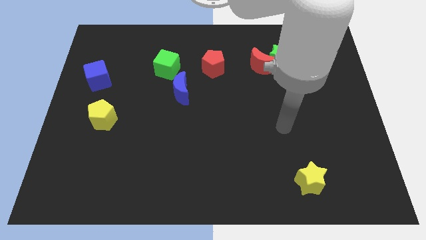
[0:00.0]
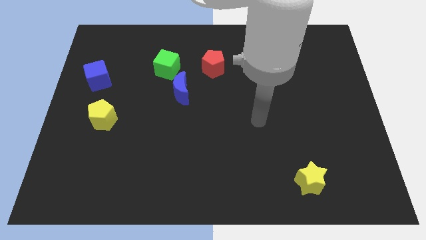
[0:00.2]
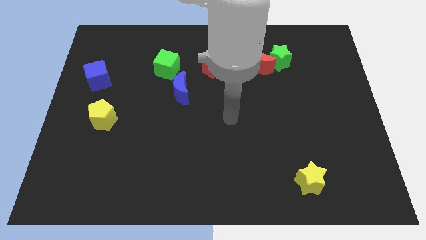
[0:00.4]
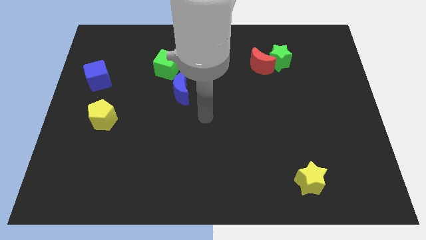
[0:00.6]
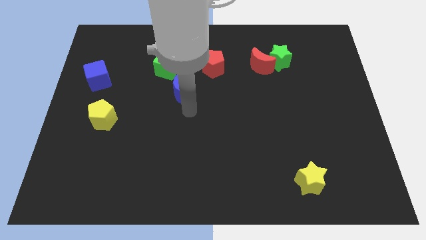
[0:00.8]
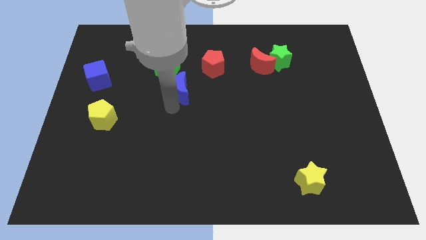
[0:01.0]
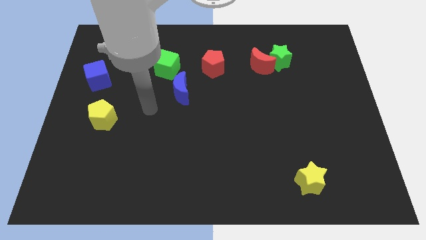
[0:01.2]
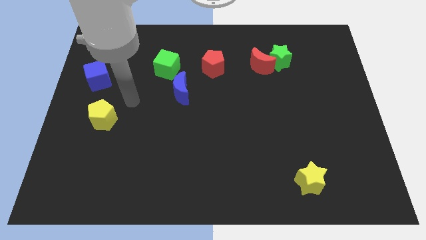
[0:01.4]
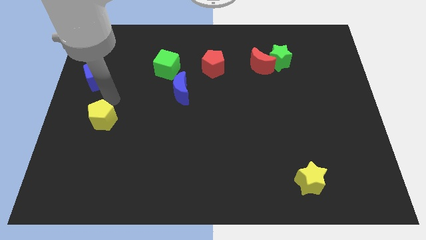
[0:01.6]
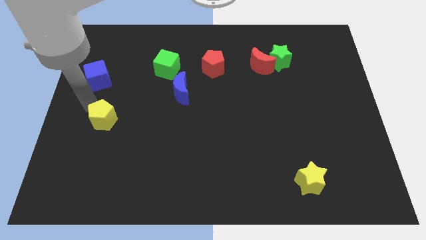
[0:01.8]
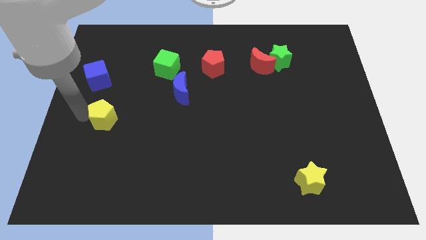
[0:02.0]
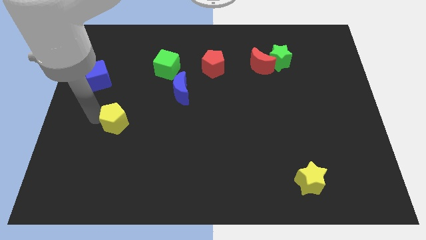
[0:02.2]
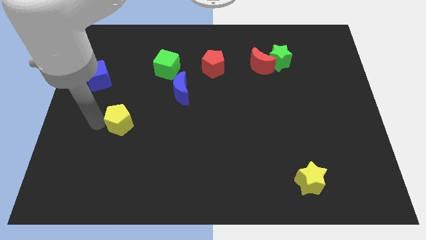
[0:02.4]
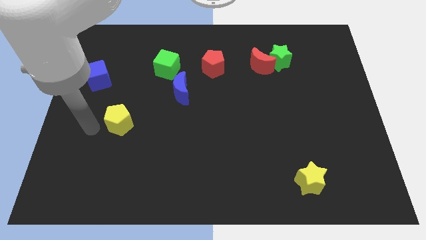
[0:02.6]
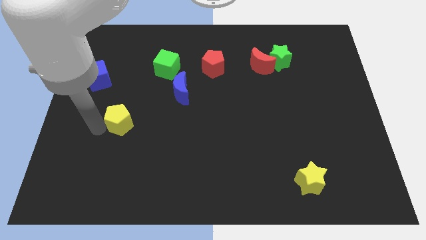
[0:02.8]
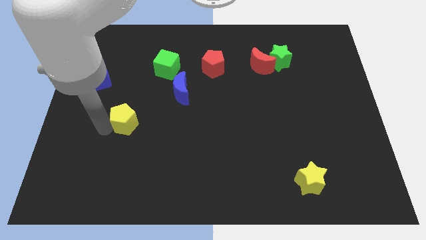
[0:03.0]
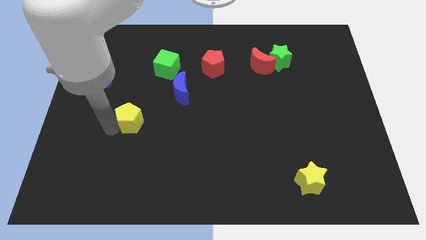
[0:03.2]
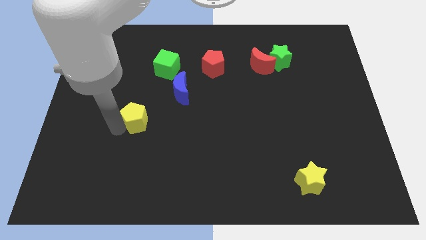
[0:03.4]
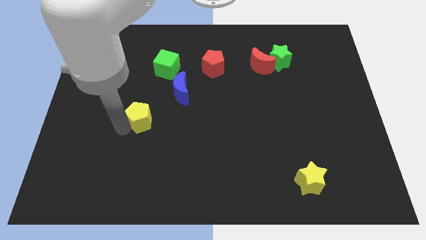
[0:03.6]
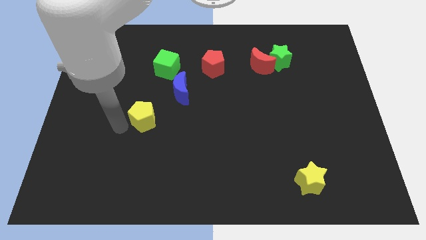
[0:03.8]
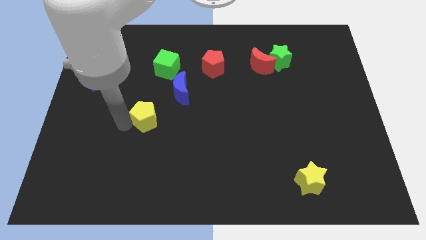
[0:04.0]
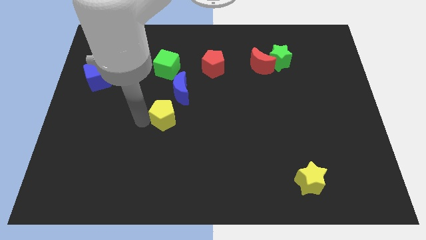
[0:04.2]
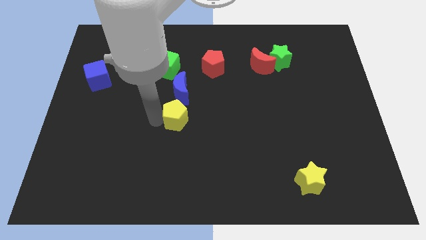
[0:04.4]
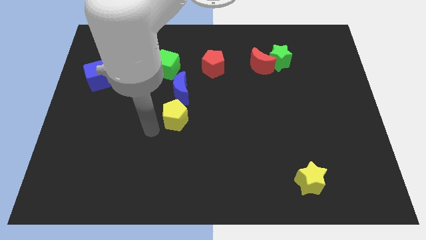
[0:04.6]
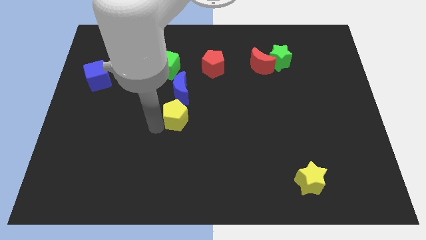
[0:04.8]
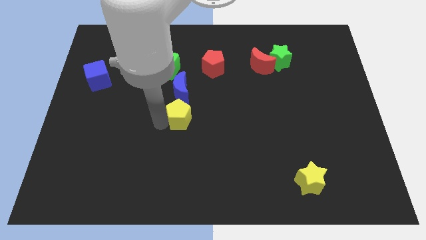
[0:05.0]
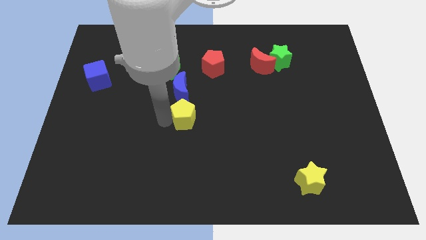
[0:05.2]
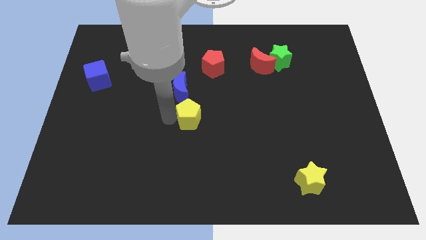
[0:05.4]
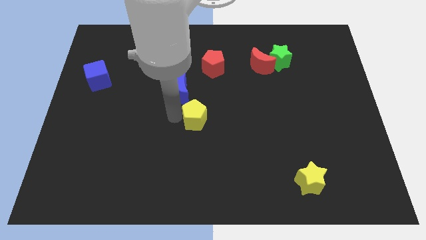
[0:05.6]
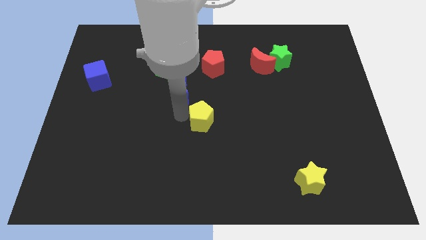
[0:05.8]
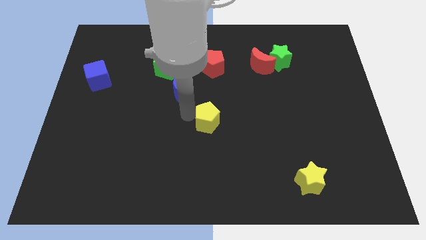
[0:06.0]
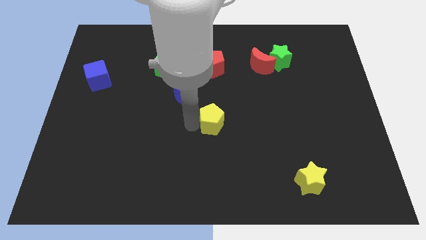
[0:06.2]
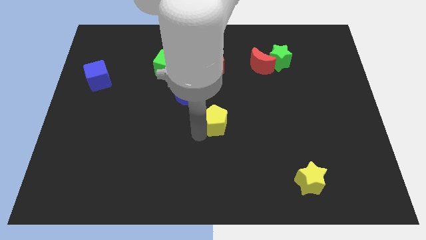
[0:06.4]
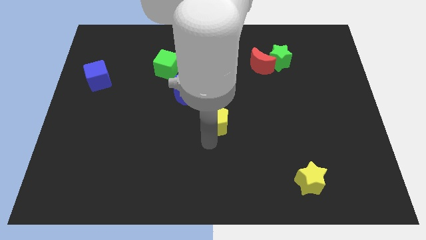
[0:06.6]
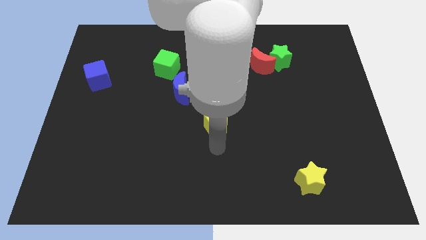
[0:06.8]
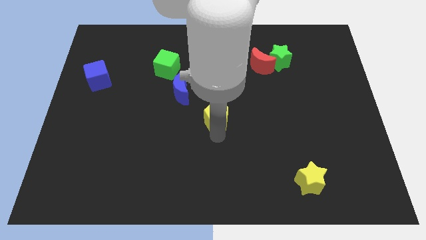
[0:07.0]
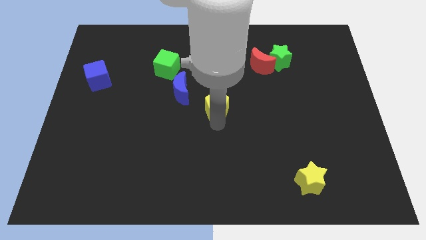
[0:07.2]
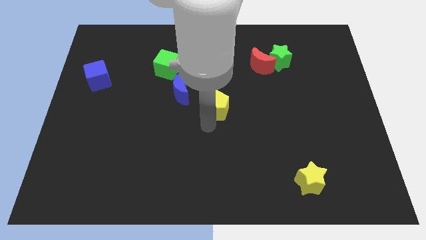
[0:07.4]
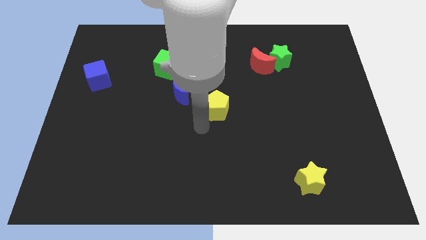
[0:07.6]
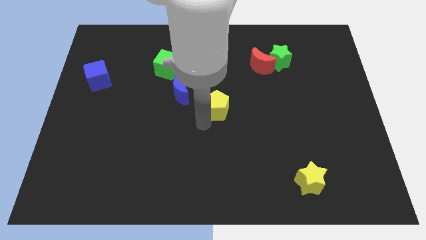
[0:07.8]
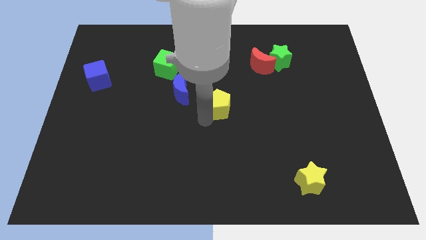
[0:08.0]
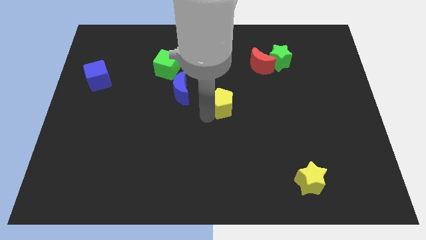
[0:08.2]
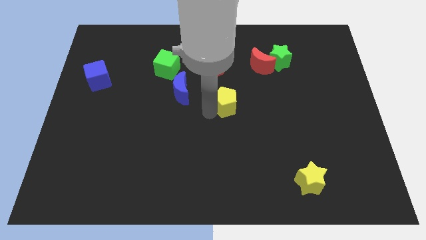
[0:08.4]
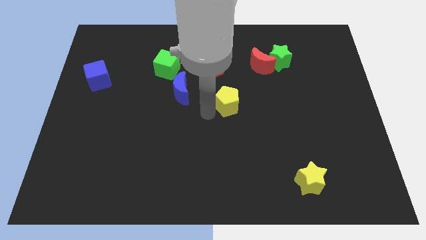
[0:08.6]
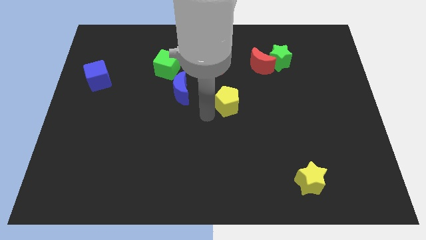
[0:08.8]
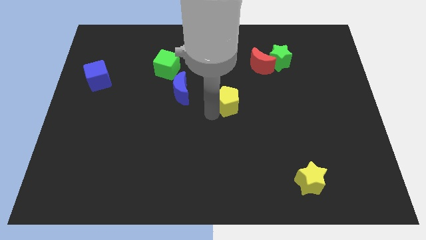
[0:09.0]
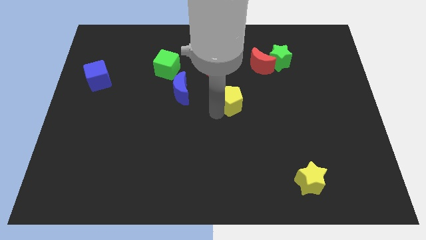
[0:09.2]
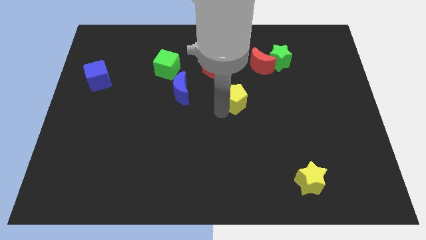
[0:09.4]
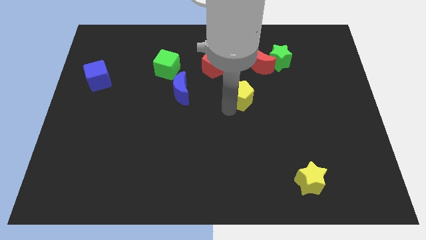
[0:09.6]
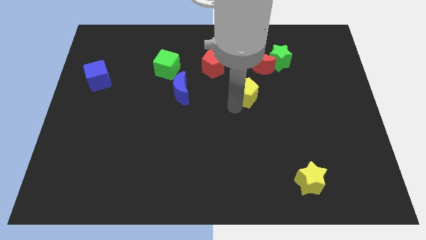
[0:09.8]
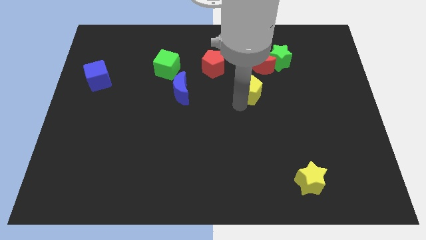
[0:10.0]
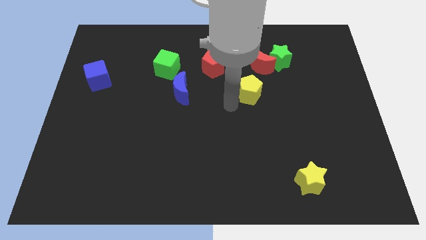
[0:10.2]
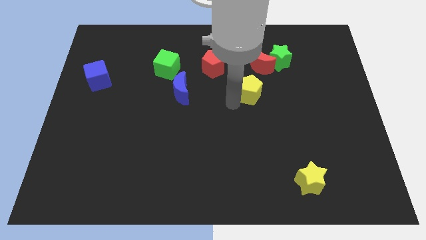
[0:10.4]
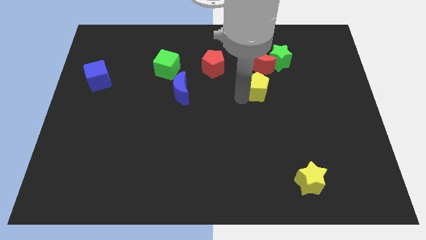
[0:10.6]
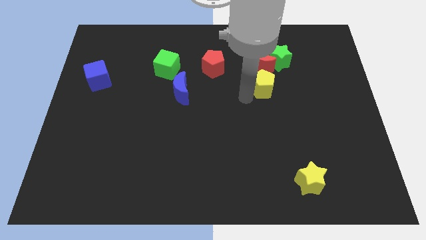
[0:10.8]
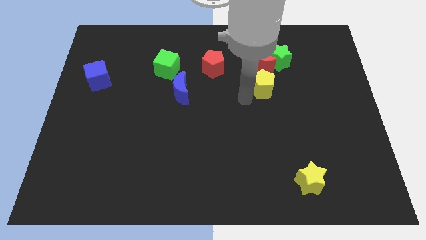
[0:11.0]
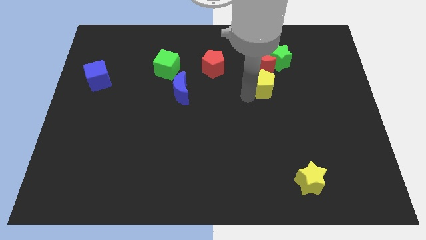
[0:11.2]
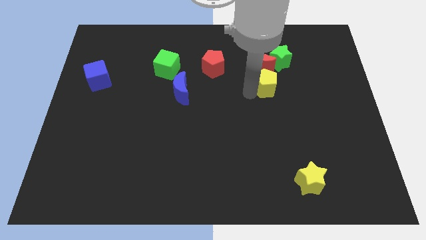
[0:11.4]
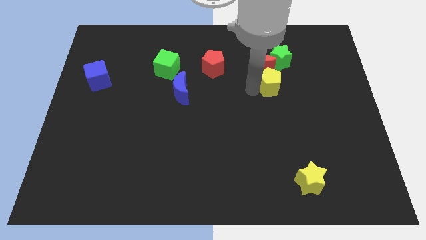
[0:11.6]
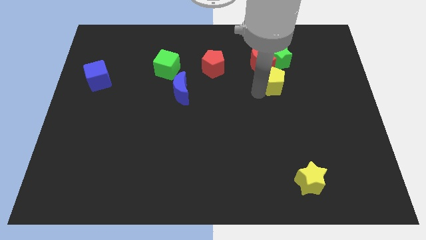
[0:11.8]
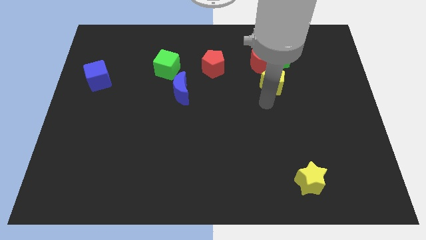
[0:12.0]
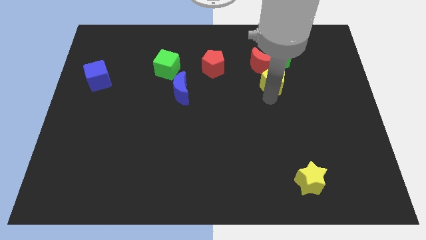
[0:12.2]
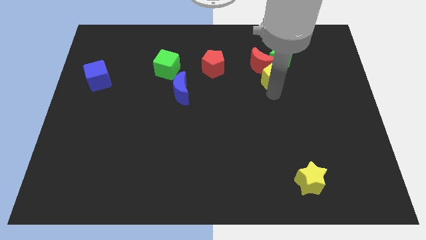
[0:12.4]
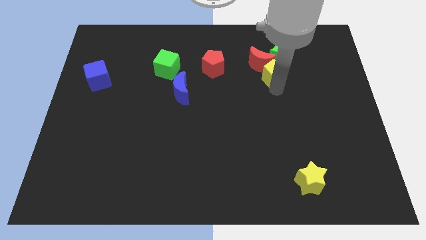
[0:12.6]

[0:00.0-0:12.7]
put the yellow pentagon close to the green star

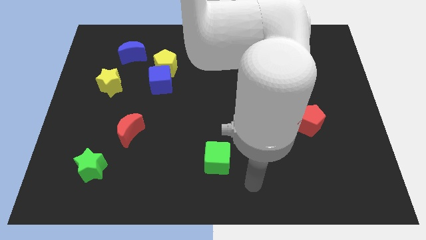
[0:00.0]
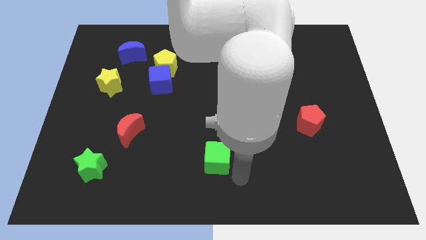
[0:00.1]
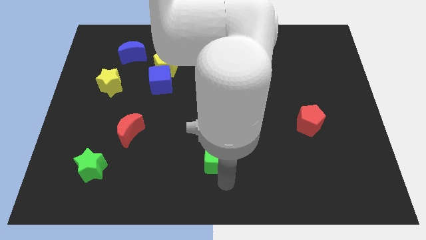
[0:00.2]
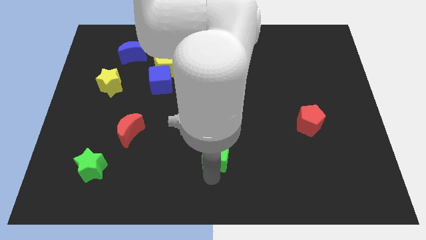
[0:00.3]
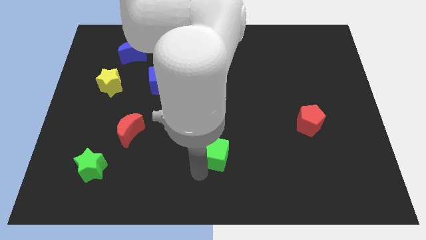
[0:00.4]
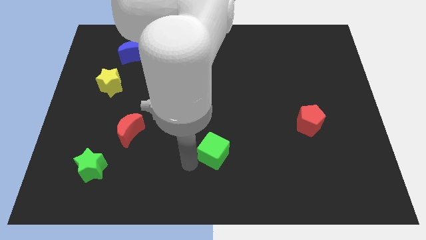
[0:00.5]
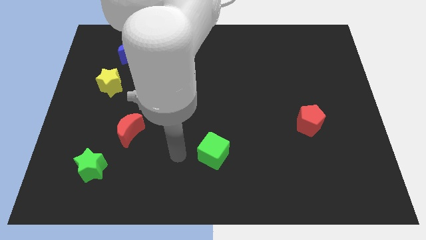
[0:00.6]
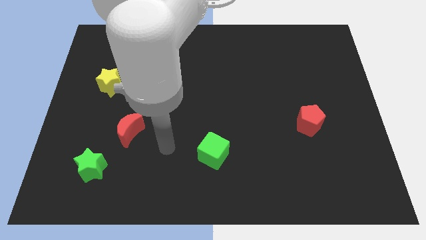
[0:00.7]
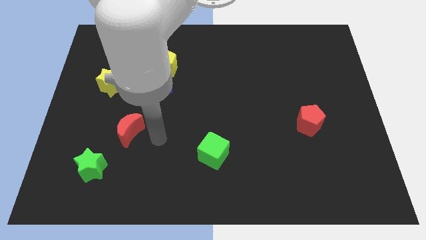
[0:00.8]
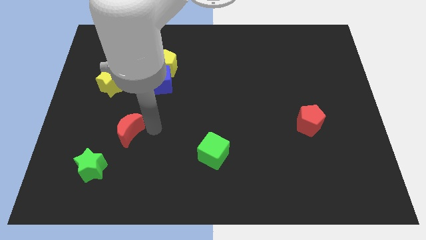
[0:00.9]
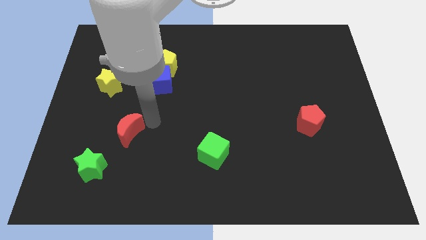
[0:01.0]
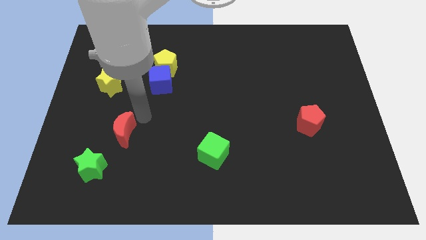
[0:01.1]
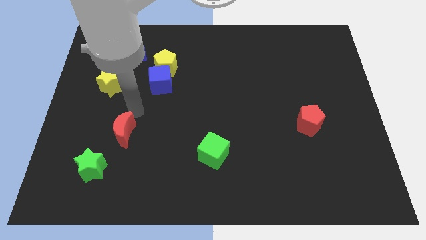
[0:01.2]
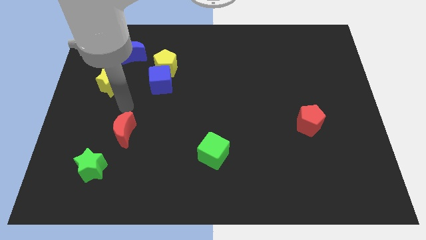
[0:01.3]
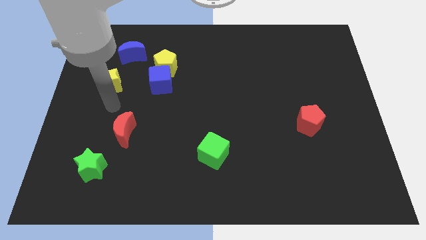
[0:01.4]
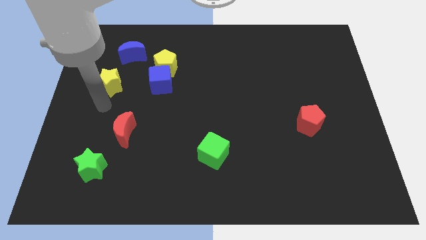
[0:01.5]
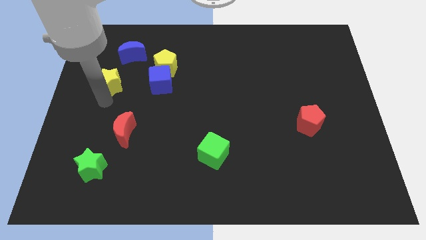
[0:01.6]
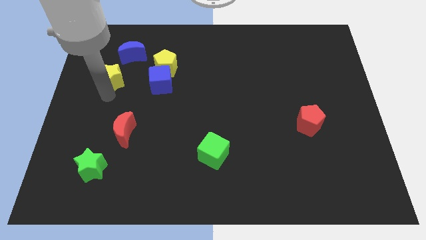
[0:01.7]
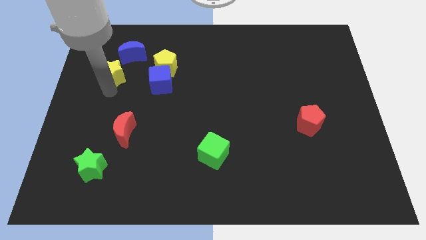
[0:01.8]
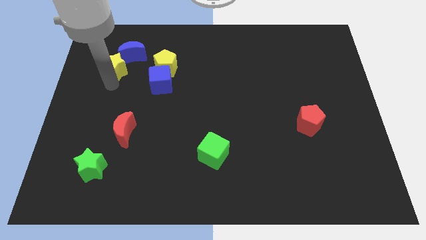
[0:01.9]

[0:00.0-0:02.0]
push the yellow star to the blue moon
